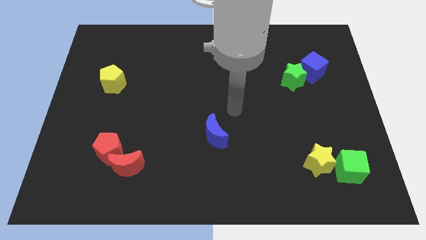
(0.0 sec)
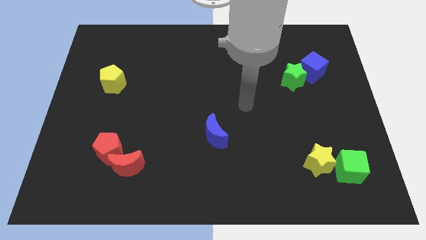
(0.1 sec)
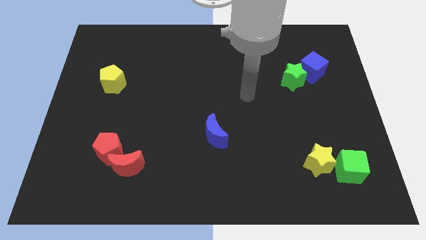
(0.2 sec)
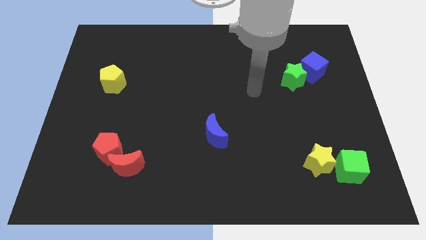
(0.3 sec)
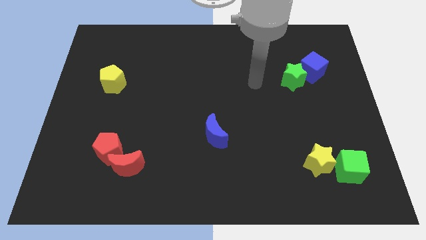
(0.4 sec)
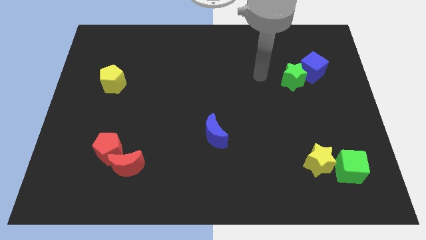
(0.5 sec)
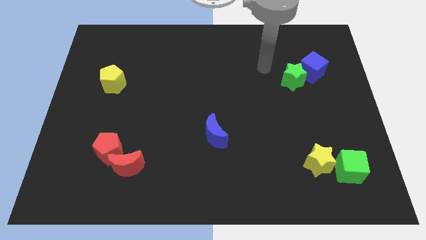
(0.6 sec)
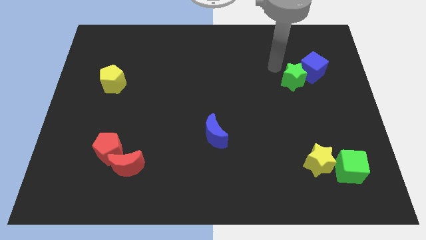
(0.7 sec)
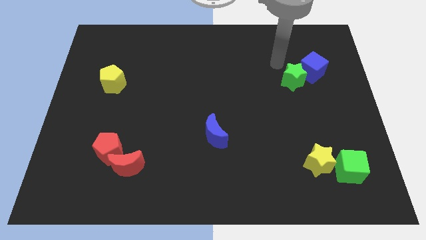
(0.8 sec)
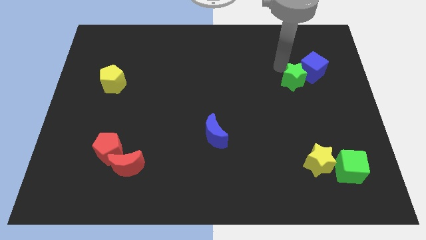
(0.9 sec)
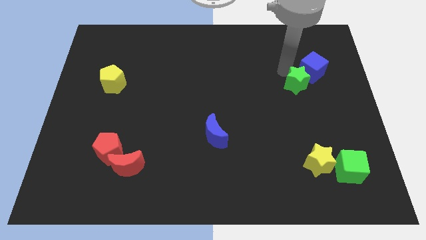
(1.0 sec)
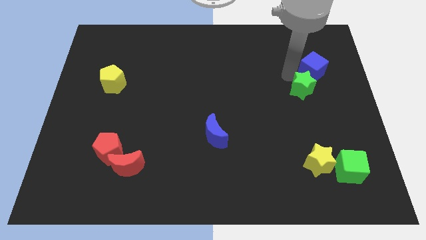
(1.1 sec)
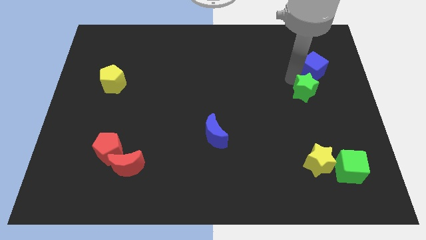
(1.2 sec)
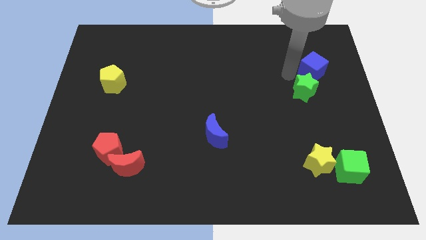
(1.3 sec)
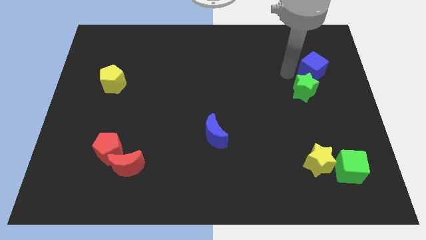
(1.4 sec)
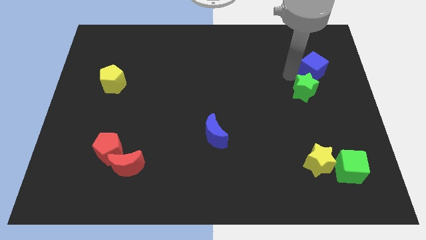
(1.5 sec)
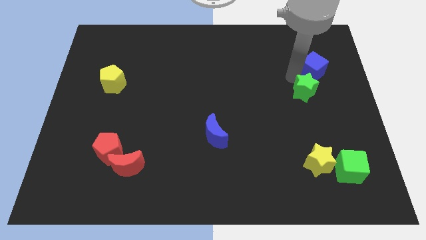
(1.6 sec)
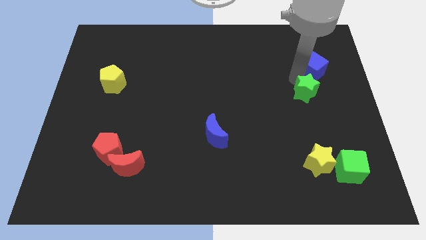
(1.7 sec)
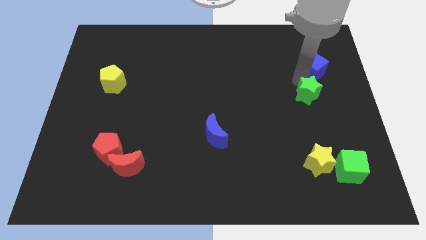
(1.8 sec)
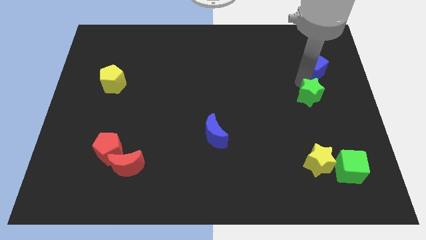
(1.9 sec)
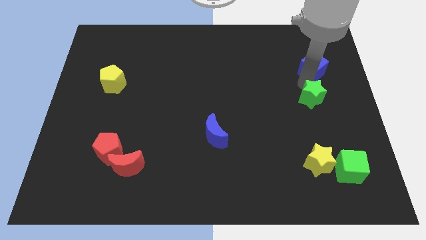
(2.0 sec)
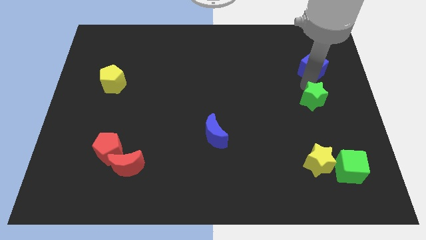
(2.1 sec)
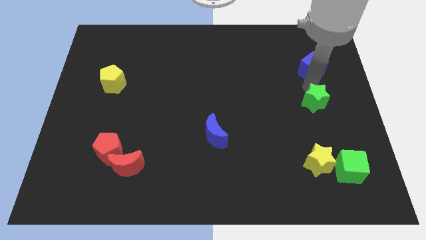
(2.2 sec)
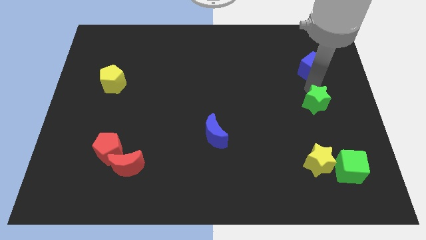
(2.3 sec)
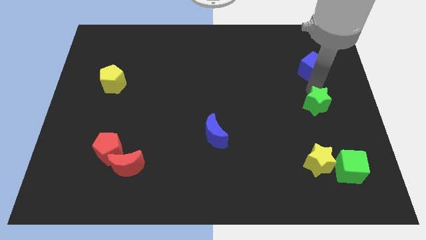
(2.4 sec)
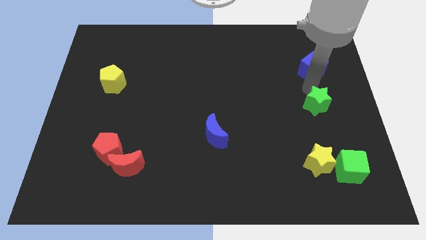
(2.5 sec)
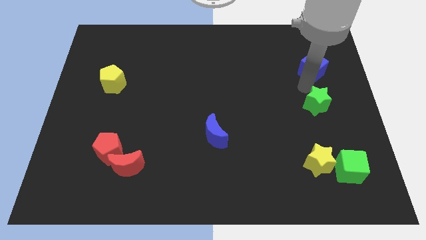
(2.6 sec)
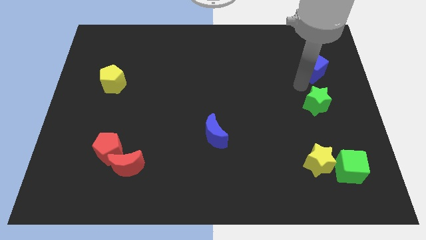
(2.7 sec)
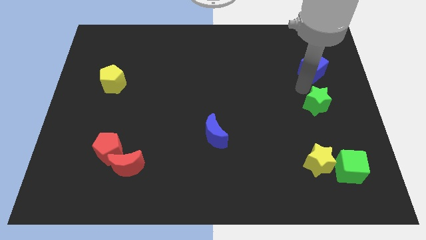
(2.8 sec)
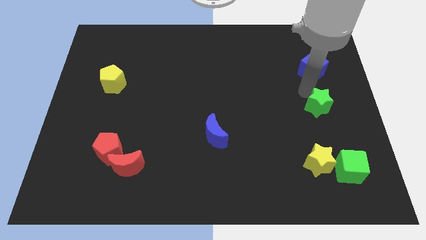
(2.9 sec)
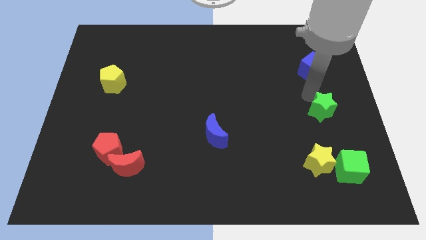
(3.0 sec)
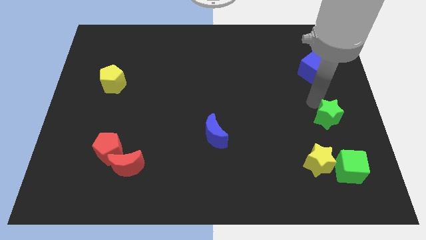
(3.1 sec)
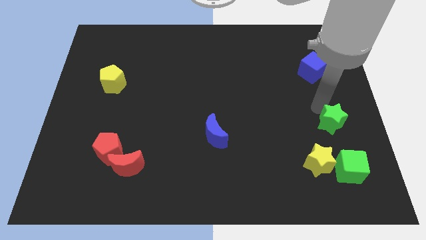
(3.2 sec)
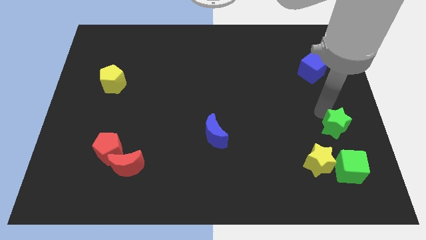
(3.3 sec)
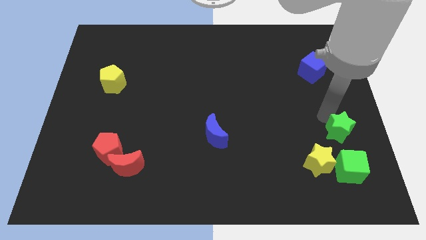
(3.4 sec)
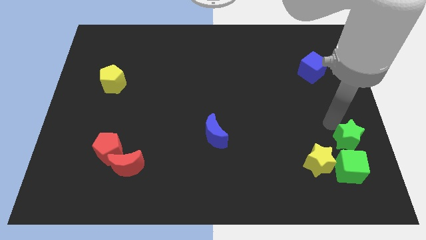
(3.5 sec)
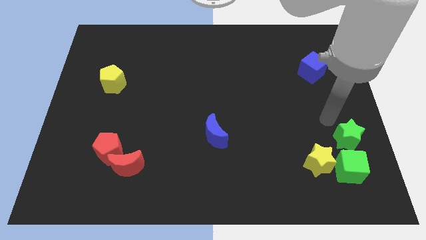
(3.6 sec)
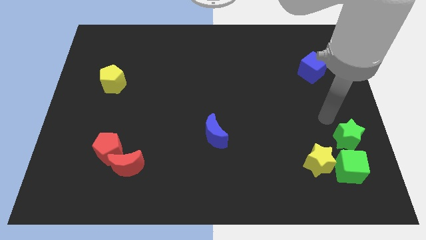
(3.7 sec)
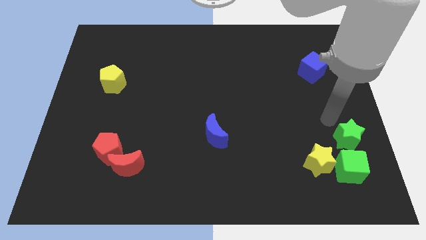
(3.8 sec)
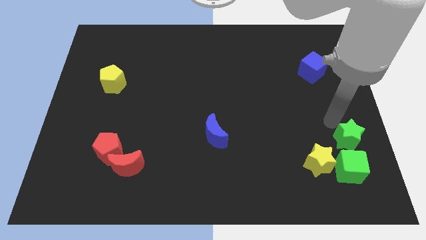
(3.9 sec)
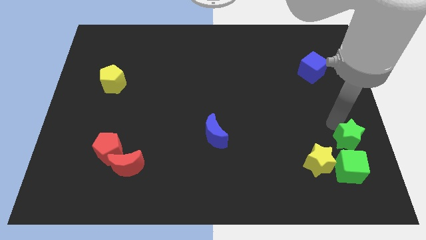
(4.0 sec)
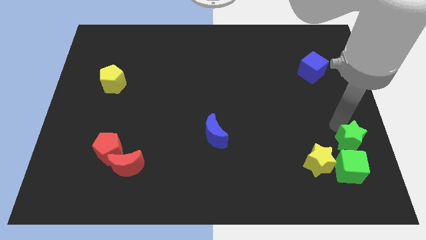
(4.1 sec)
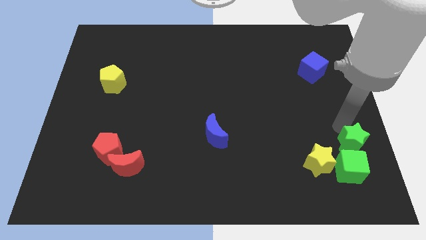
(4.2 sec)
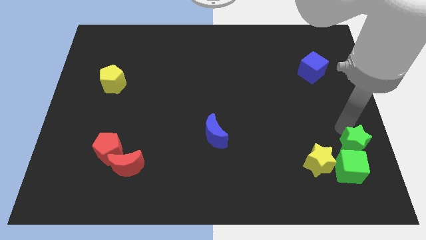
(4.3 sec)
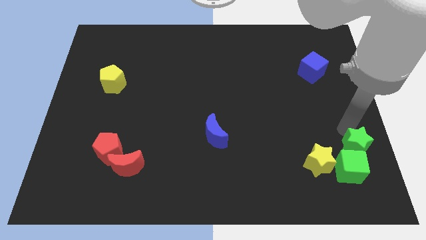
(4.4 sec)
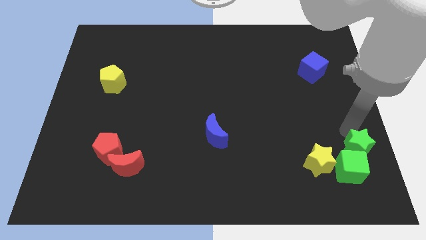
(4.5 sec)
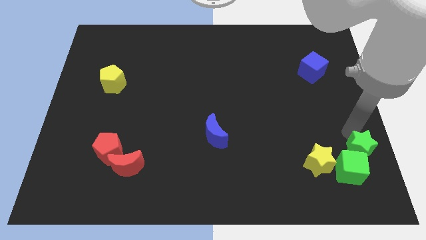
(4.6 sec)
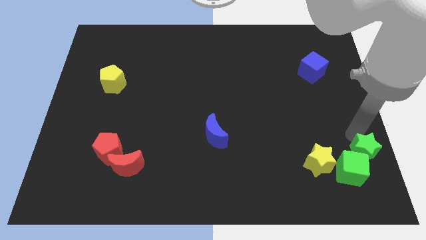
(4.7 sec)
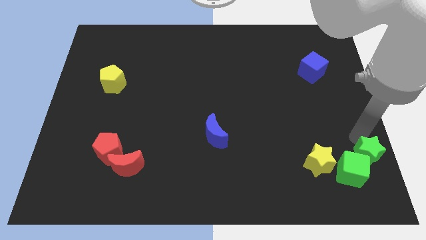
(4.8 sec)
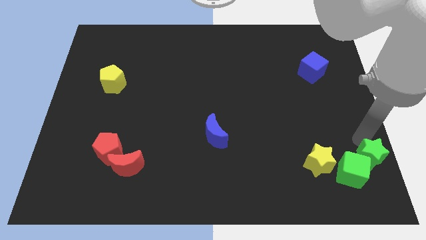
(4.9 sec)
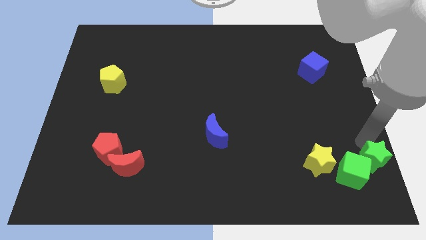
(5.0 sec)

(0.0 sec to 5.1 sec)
push the green star to the bottom right

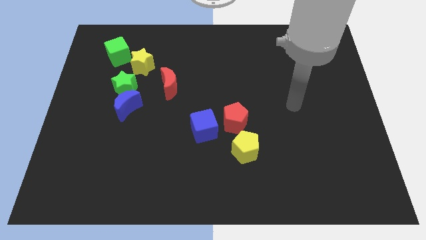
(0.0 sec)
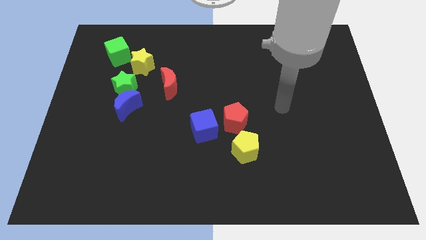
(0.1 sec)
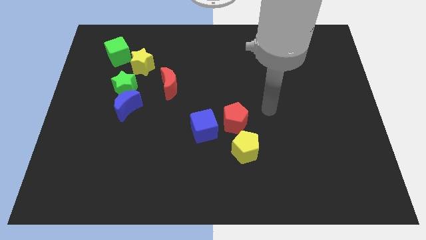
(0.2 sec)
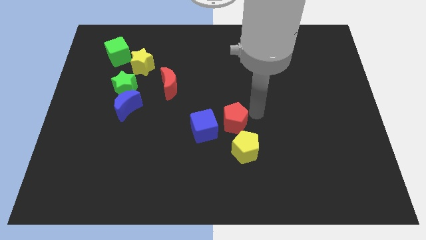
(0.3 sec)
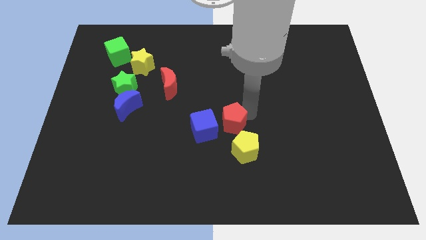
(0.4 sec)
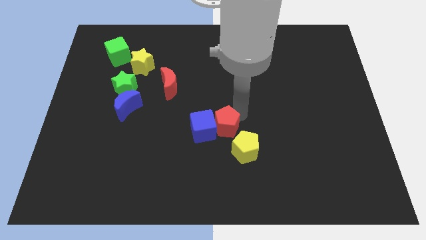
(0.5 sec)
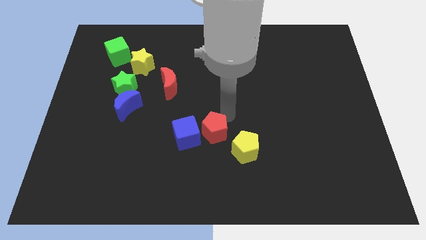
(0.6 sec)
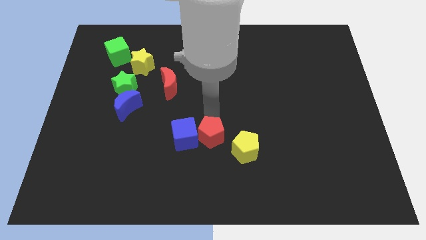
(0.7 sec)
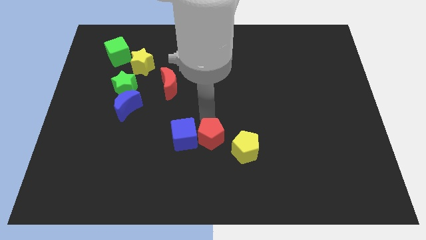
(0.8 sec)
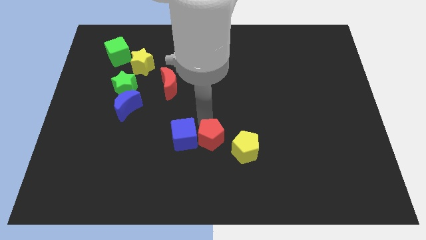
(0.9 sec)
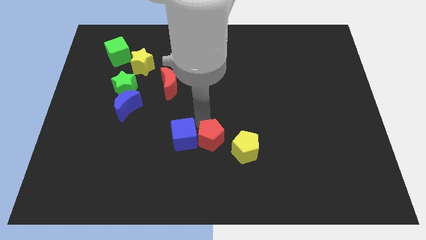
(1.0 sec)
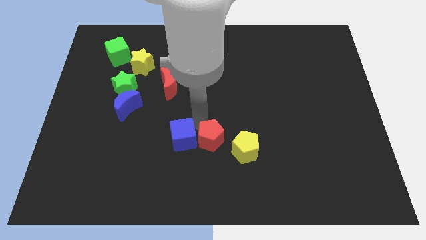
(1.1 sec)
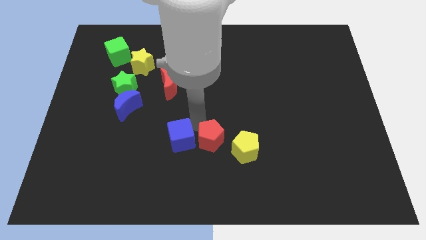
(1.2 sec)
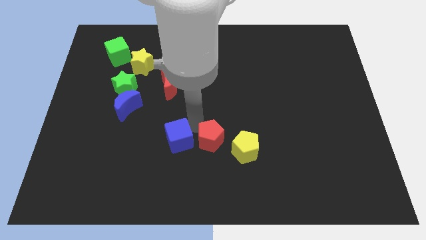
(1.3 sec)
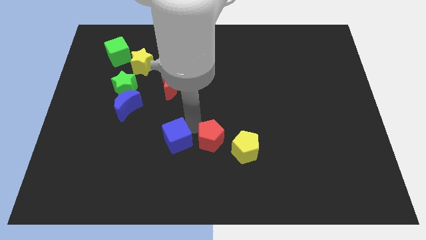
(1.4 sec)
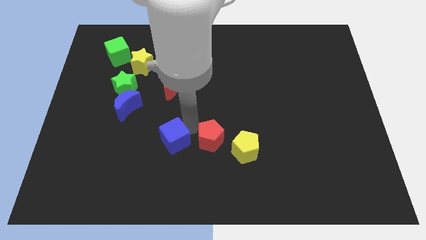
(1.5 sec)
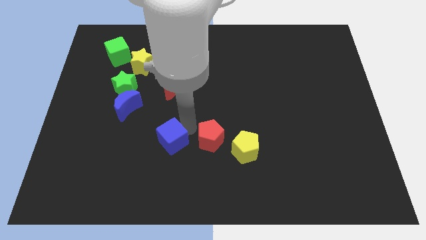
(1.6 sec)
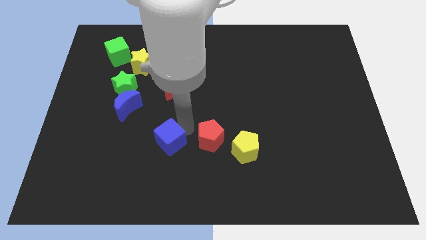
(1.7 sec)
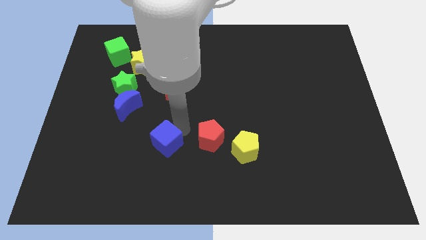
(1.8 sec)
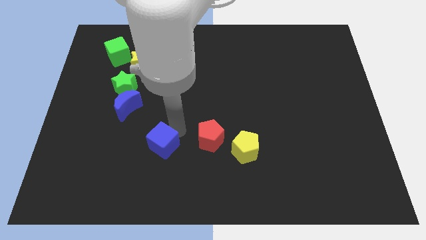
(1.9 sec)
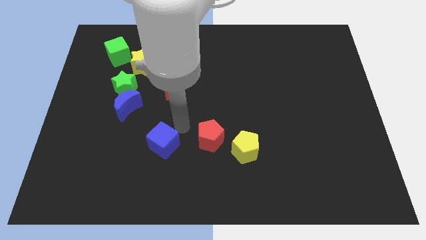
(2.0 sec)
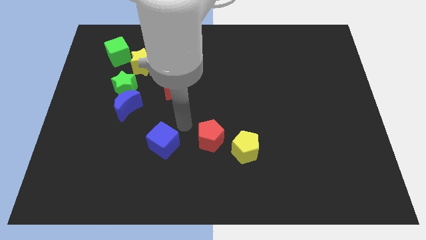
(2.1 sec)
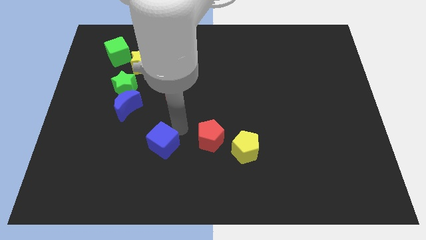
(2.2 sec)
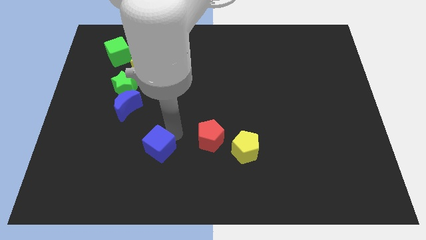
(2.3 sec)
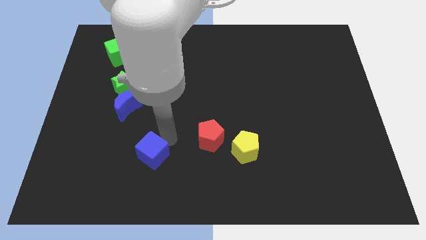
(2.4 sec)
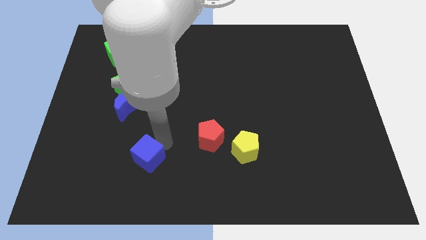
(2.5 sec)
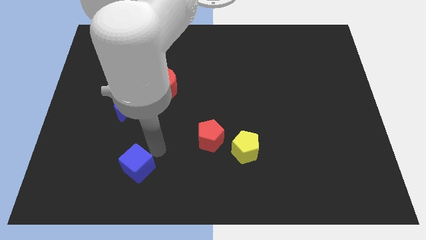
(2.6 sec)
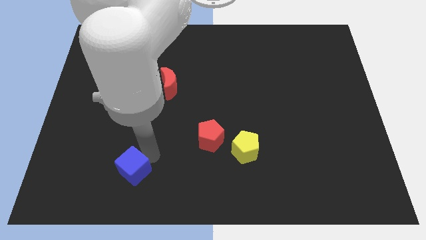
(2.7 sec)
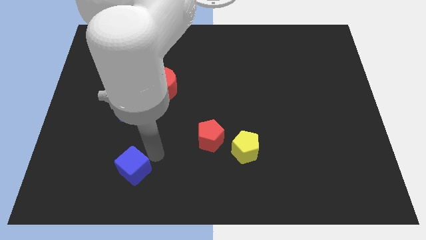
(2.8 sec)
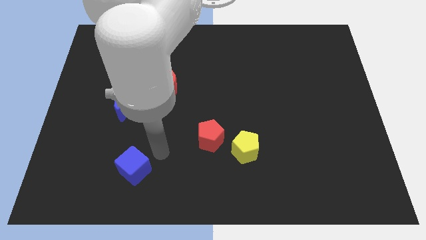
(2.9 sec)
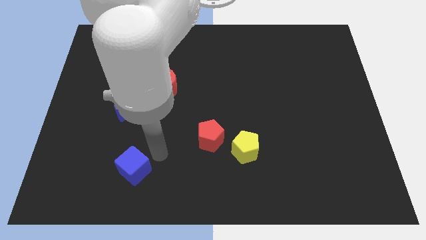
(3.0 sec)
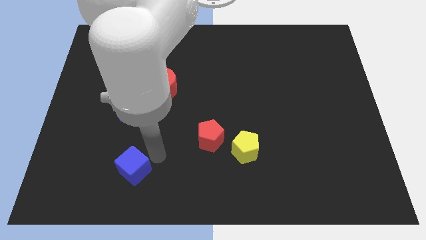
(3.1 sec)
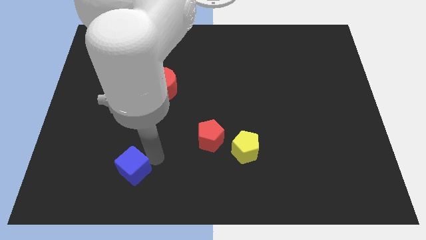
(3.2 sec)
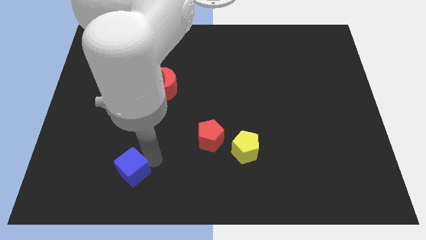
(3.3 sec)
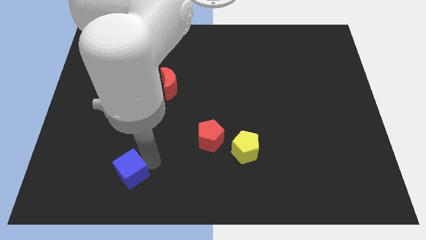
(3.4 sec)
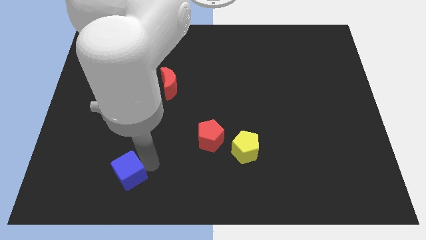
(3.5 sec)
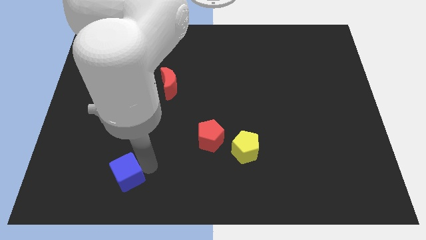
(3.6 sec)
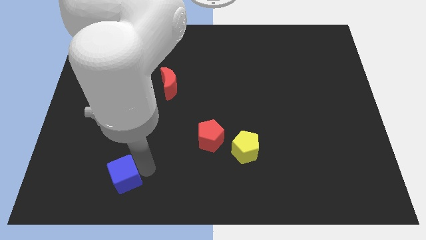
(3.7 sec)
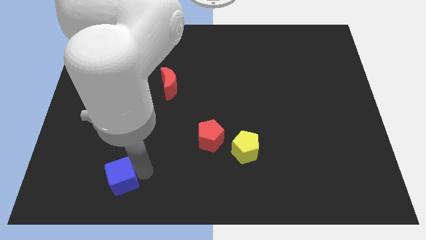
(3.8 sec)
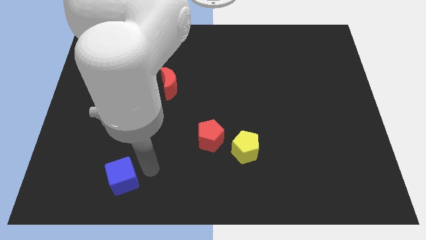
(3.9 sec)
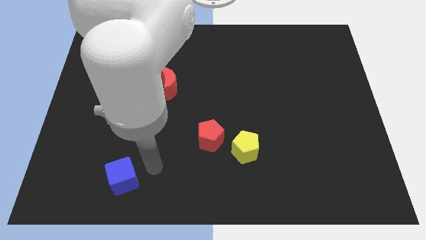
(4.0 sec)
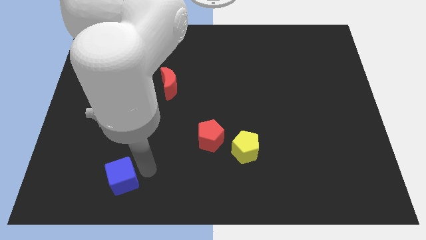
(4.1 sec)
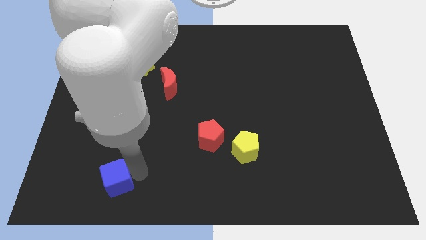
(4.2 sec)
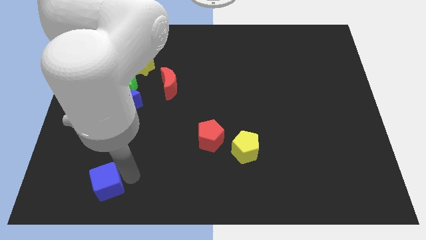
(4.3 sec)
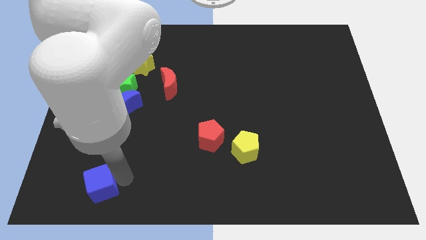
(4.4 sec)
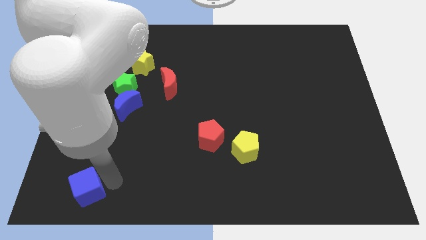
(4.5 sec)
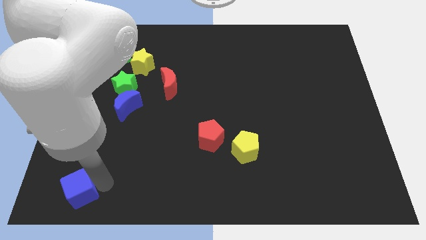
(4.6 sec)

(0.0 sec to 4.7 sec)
put the blue cube to the bottom left of the board
